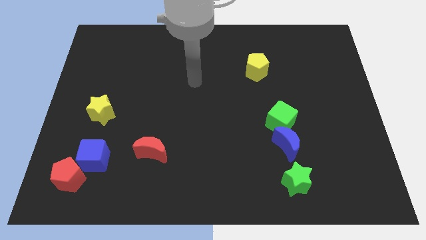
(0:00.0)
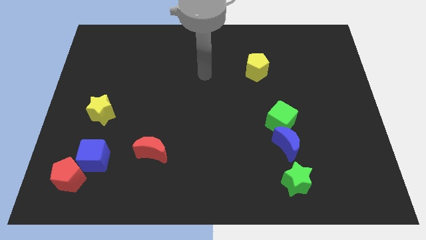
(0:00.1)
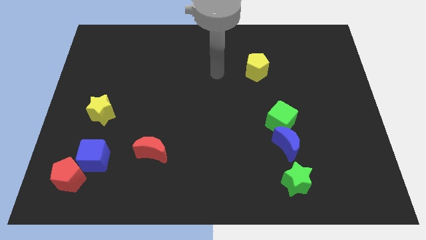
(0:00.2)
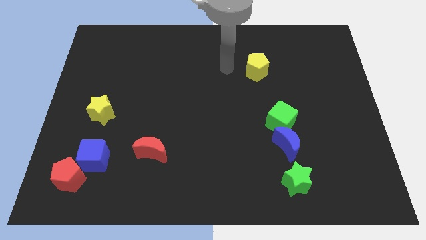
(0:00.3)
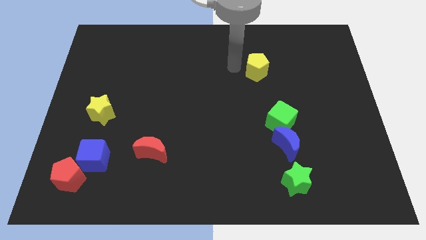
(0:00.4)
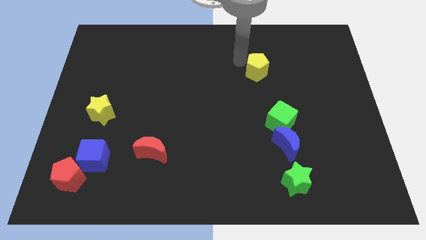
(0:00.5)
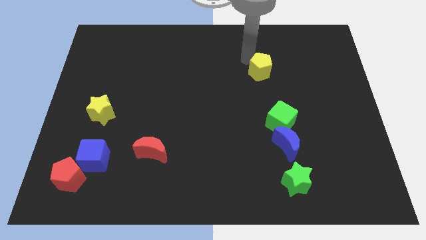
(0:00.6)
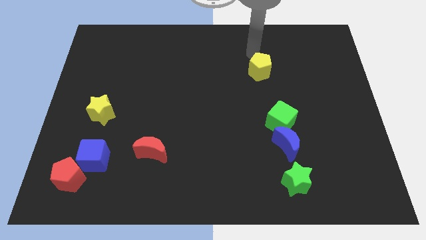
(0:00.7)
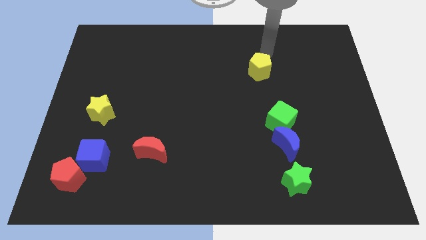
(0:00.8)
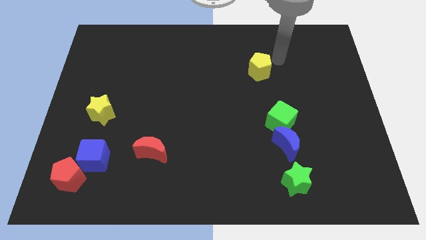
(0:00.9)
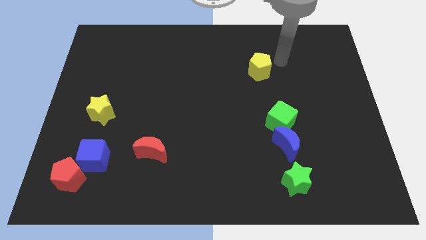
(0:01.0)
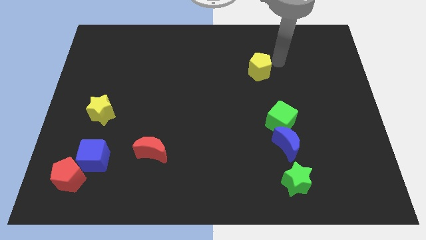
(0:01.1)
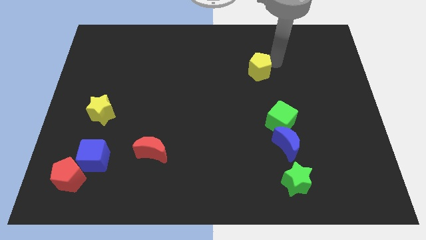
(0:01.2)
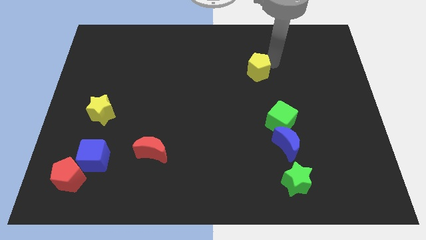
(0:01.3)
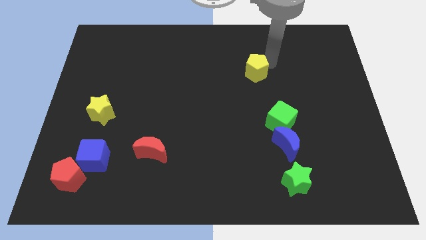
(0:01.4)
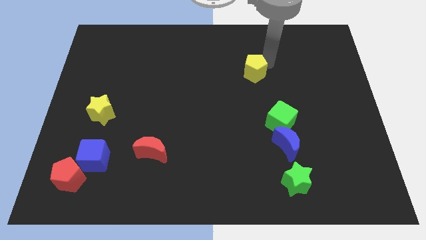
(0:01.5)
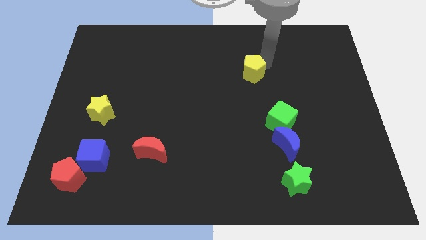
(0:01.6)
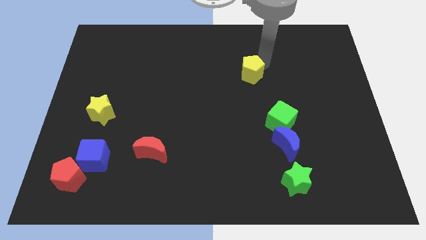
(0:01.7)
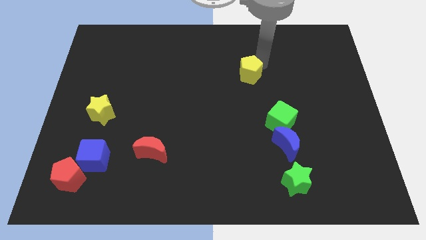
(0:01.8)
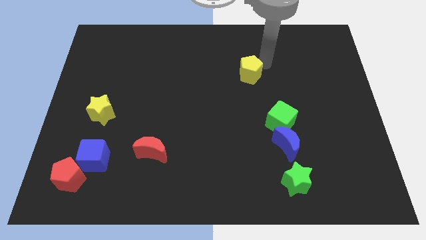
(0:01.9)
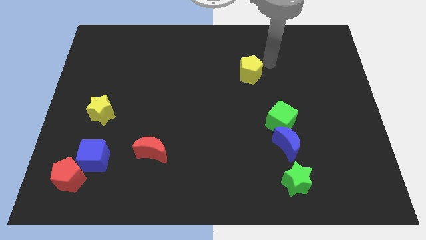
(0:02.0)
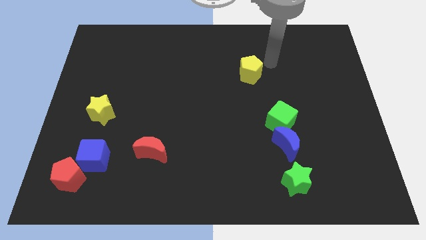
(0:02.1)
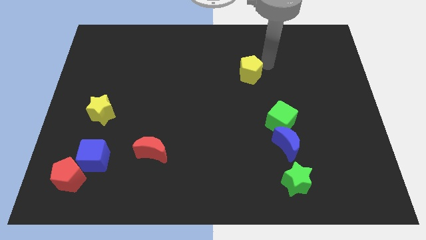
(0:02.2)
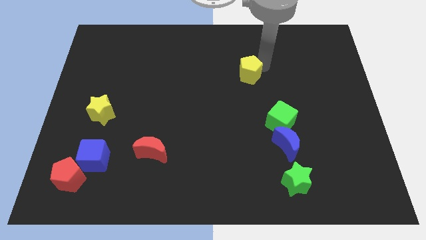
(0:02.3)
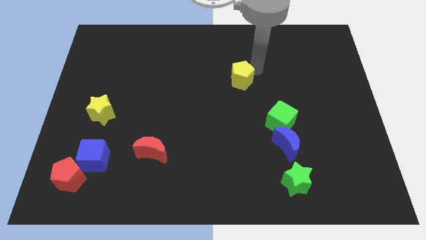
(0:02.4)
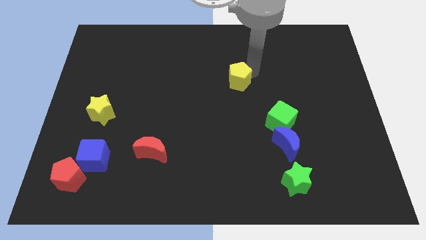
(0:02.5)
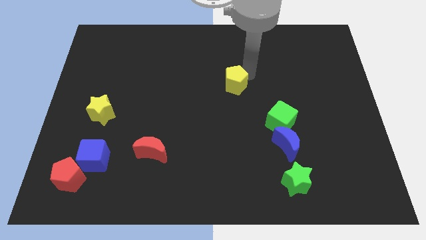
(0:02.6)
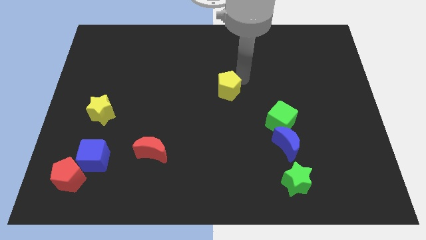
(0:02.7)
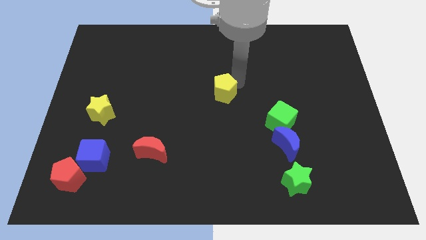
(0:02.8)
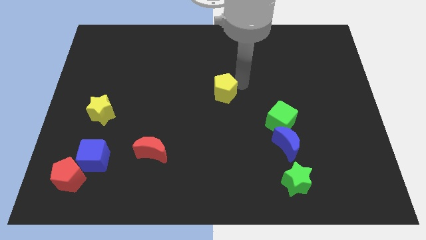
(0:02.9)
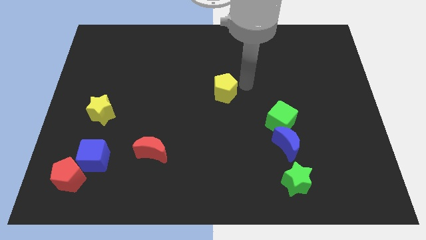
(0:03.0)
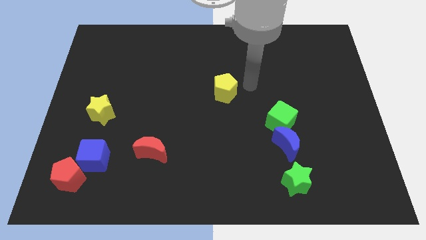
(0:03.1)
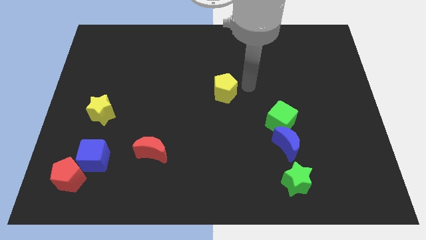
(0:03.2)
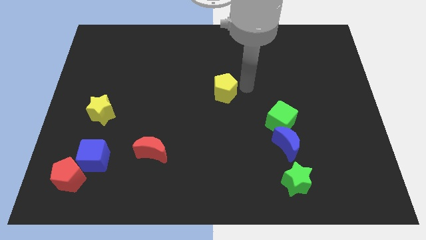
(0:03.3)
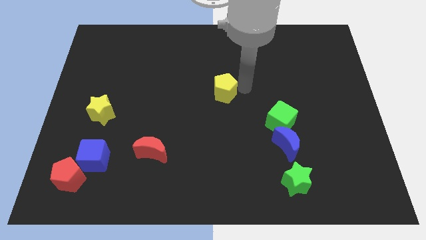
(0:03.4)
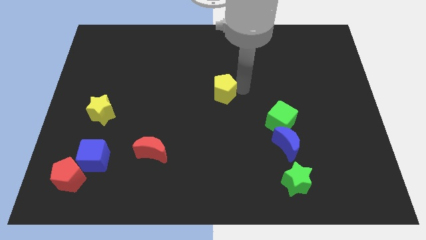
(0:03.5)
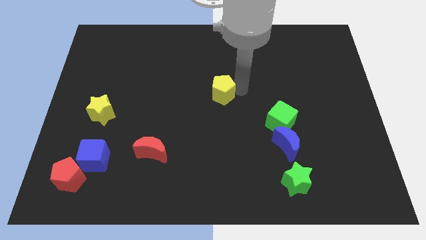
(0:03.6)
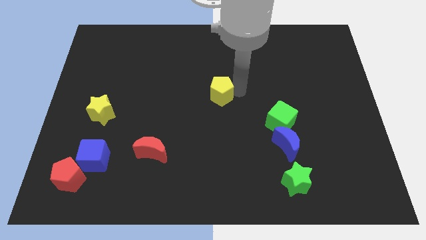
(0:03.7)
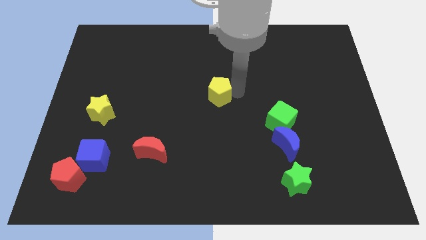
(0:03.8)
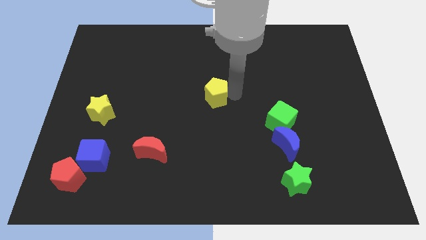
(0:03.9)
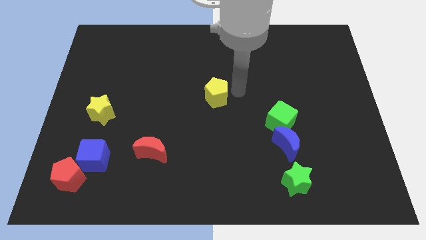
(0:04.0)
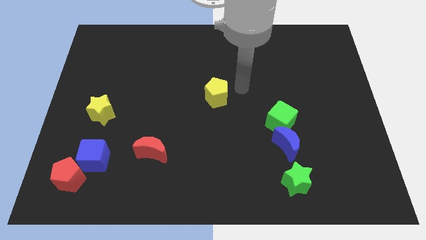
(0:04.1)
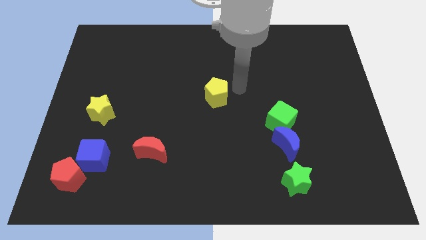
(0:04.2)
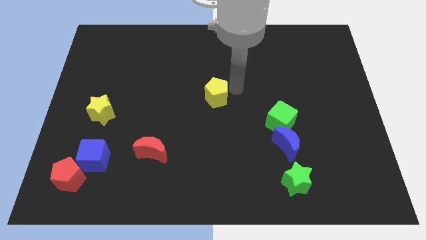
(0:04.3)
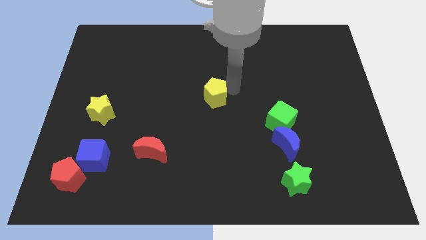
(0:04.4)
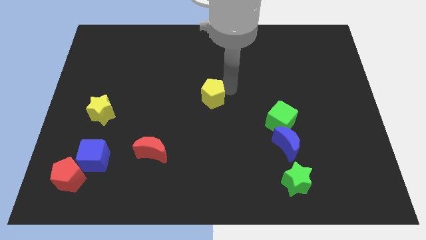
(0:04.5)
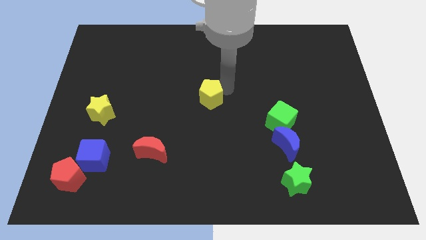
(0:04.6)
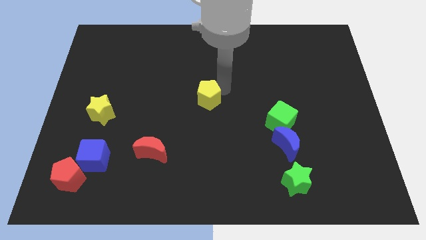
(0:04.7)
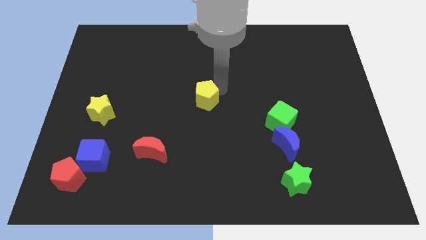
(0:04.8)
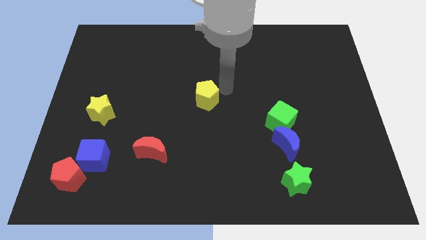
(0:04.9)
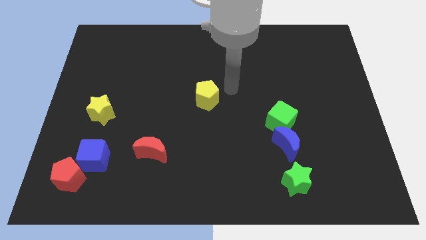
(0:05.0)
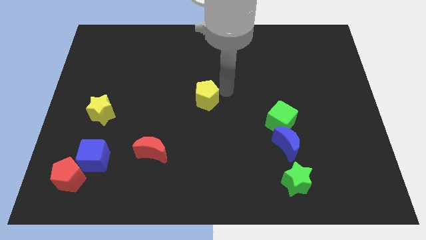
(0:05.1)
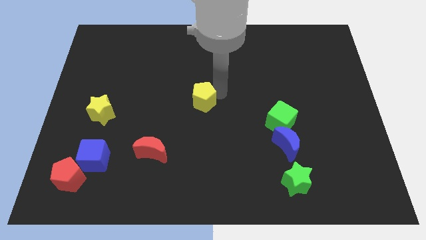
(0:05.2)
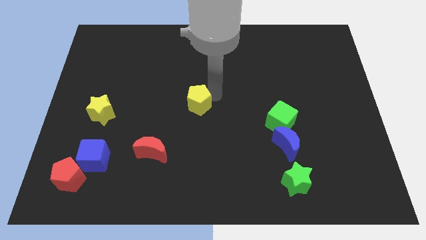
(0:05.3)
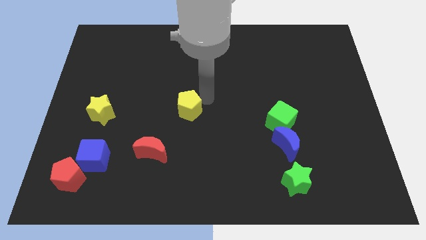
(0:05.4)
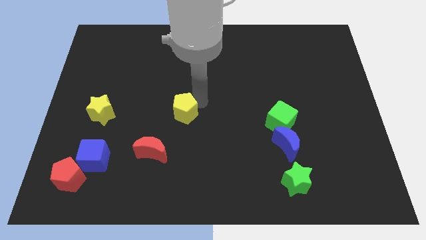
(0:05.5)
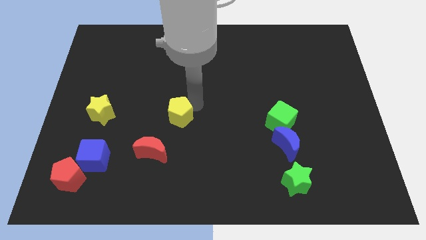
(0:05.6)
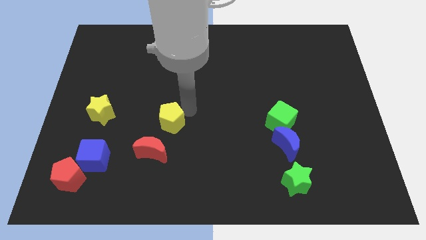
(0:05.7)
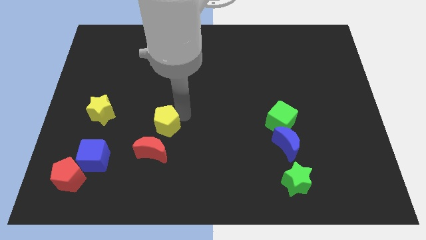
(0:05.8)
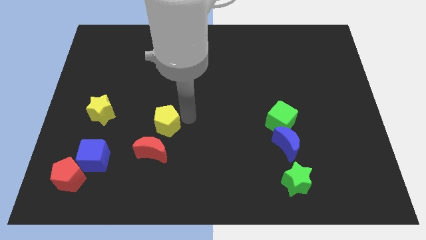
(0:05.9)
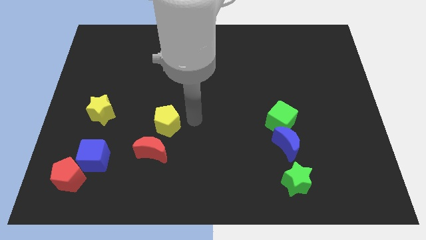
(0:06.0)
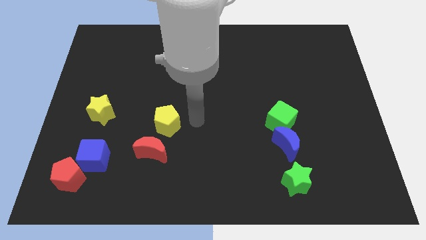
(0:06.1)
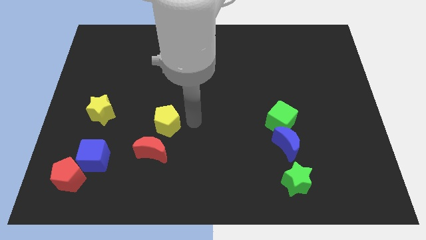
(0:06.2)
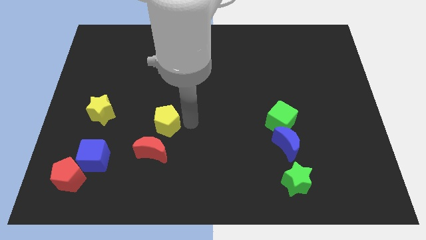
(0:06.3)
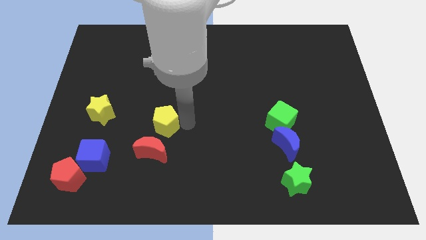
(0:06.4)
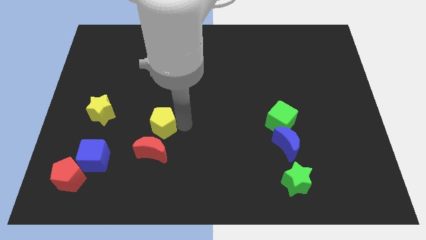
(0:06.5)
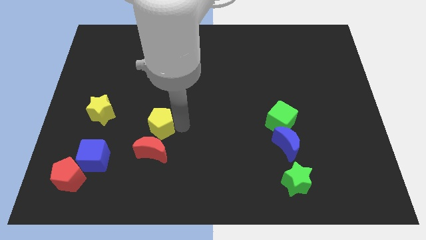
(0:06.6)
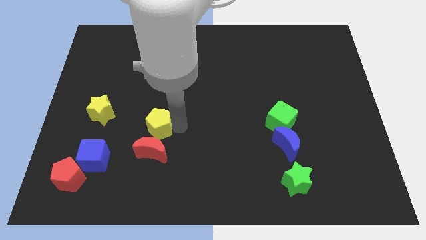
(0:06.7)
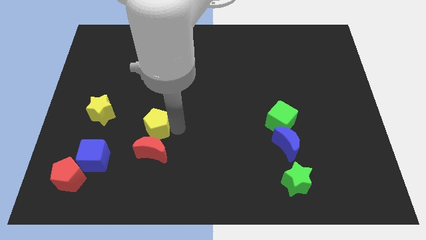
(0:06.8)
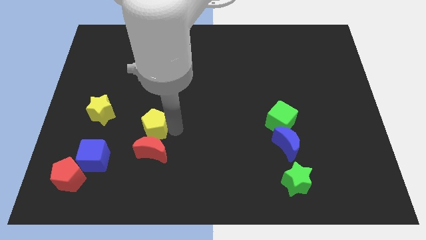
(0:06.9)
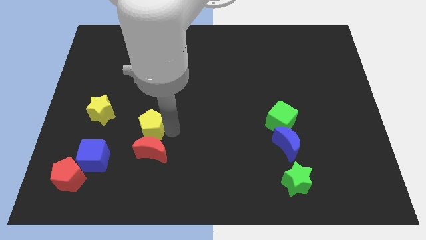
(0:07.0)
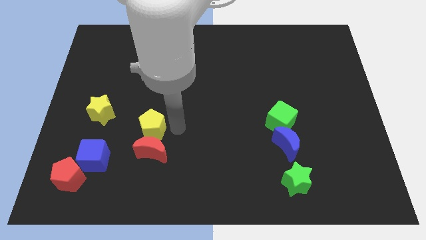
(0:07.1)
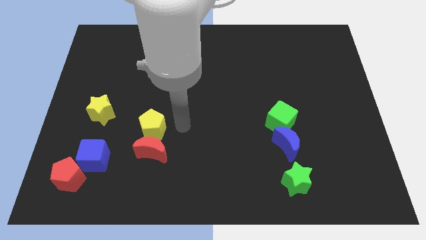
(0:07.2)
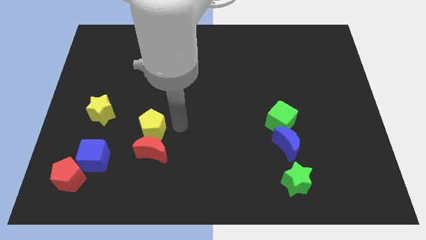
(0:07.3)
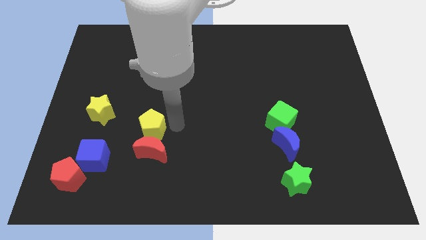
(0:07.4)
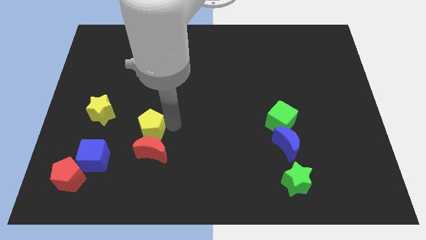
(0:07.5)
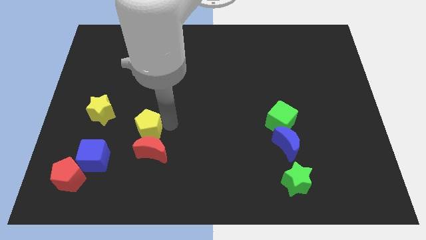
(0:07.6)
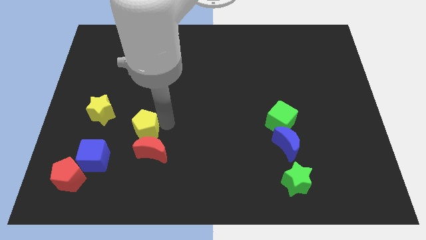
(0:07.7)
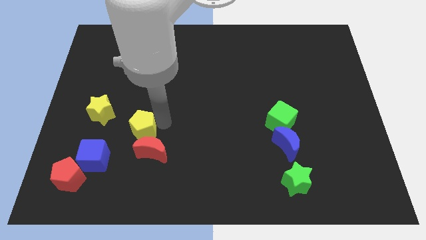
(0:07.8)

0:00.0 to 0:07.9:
slide the yellow pentagon diagonally down and to the right of the yellow star

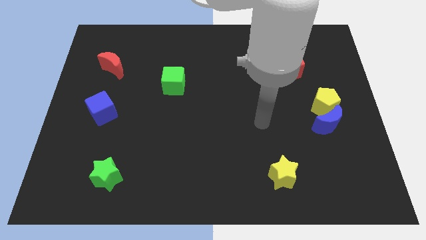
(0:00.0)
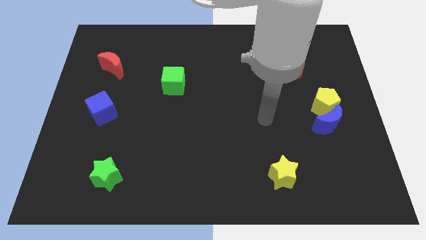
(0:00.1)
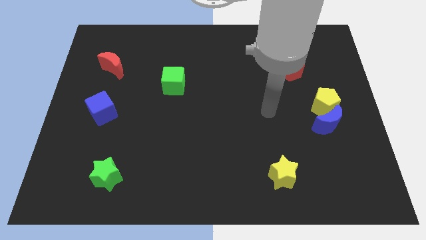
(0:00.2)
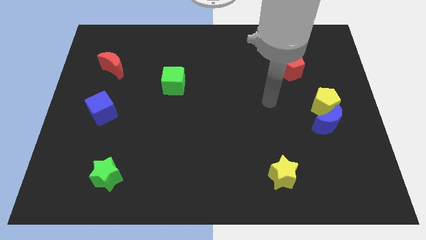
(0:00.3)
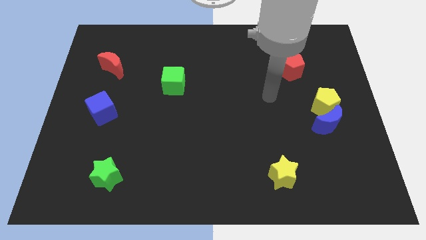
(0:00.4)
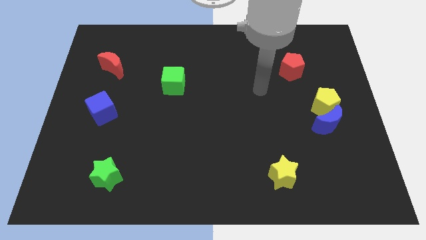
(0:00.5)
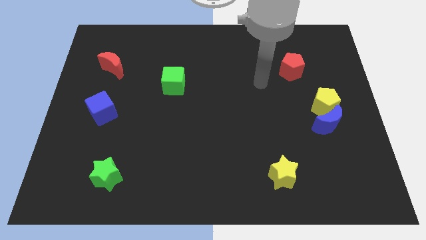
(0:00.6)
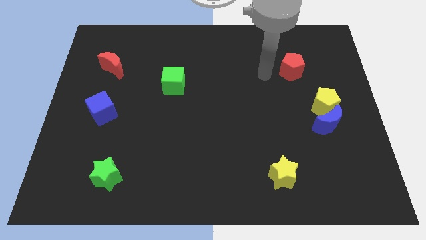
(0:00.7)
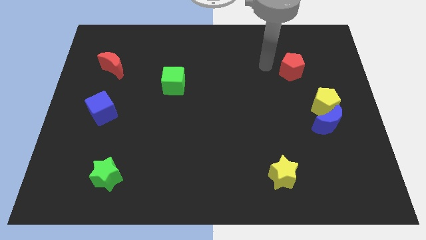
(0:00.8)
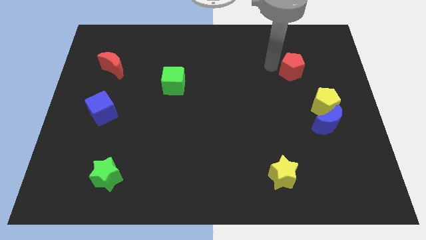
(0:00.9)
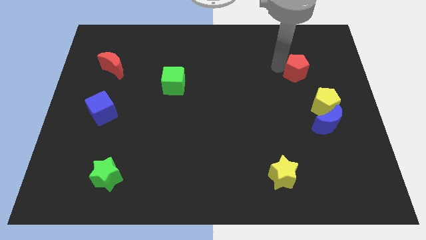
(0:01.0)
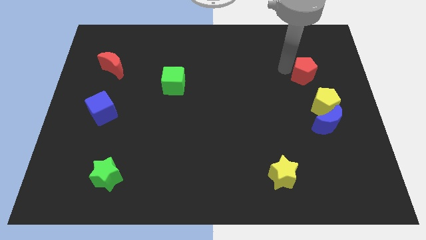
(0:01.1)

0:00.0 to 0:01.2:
move the red pentagon above the yellow pentagon
